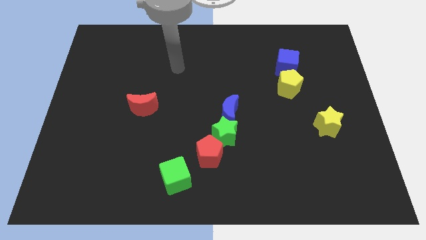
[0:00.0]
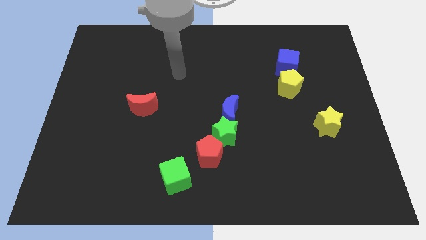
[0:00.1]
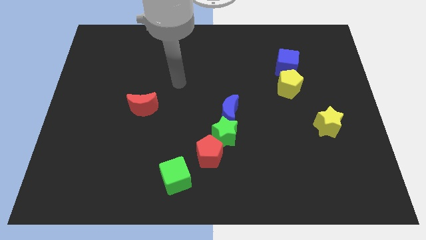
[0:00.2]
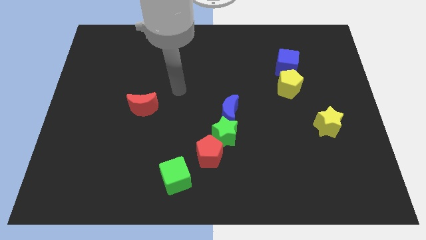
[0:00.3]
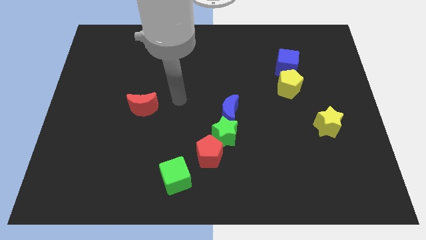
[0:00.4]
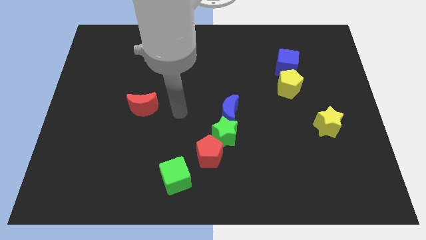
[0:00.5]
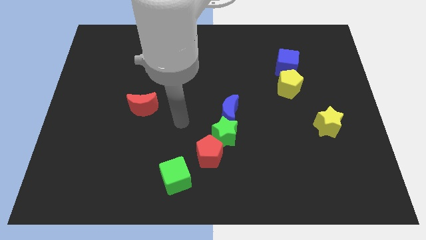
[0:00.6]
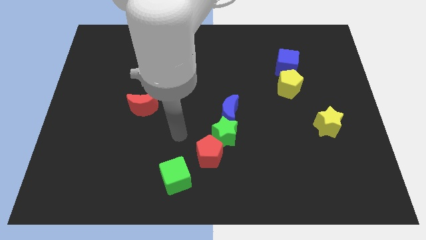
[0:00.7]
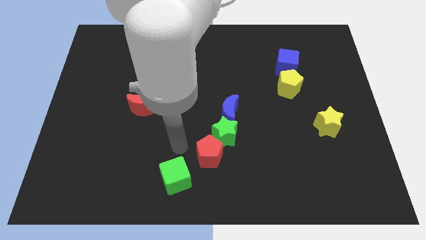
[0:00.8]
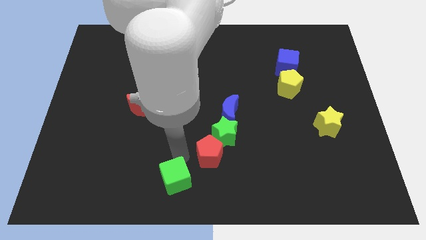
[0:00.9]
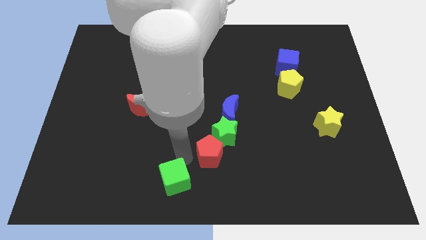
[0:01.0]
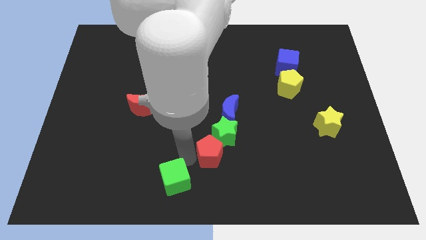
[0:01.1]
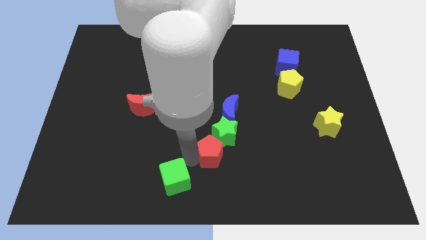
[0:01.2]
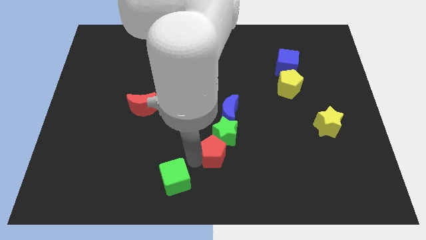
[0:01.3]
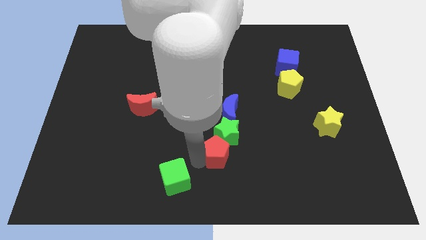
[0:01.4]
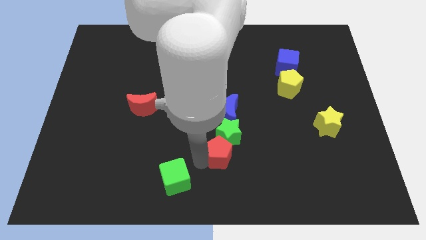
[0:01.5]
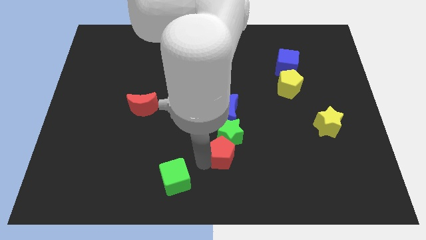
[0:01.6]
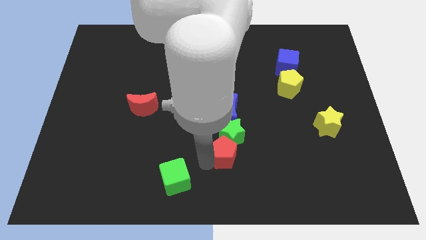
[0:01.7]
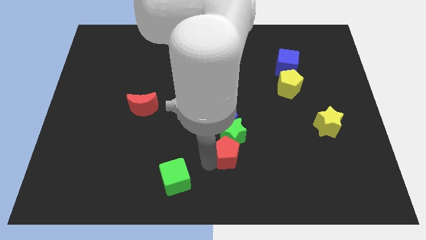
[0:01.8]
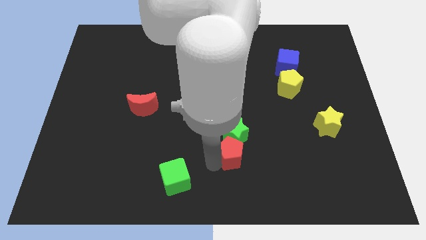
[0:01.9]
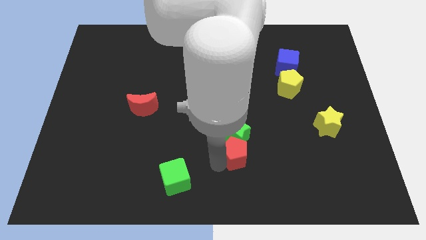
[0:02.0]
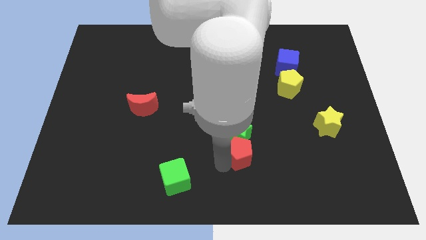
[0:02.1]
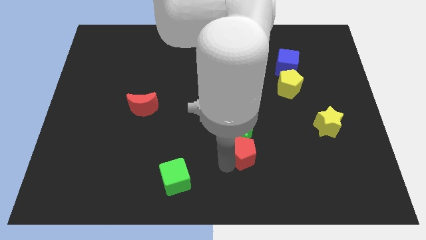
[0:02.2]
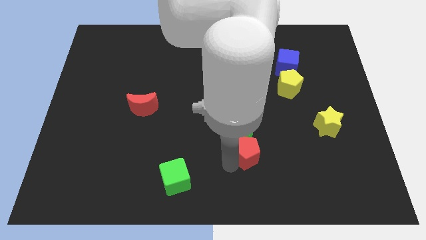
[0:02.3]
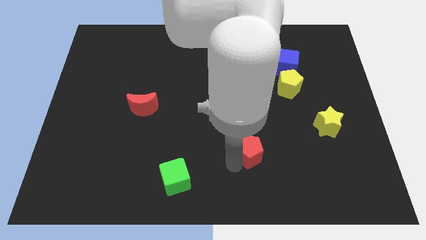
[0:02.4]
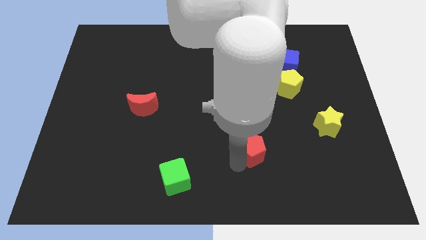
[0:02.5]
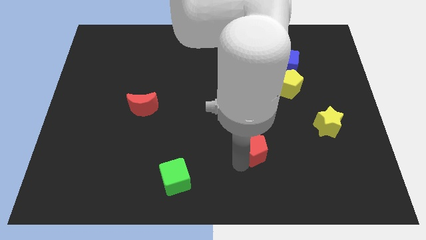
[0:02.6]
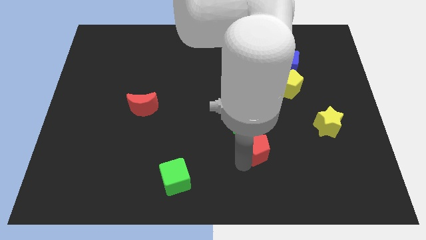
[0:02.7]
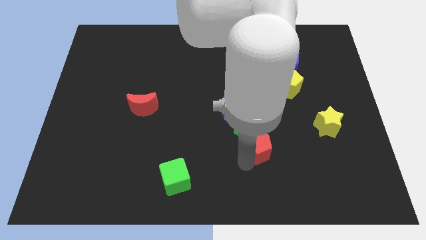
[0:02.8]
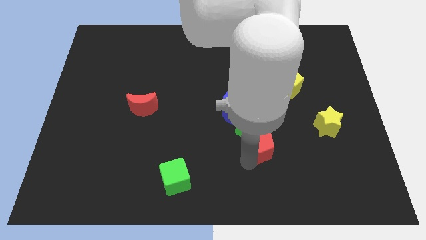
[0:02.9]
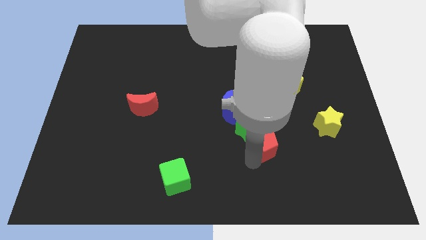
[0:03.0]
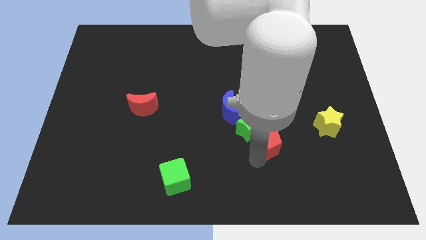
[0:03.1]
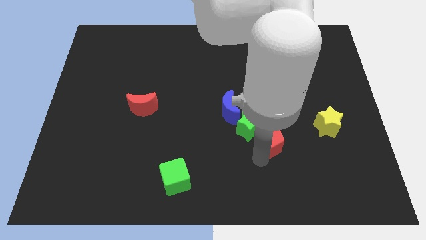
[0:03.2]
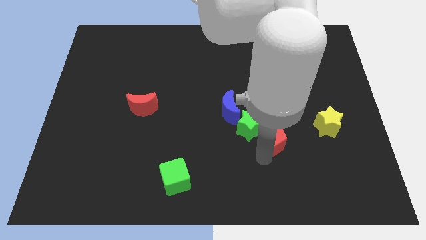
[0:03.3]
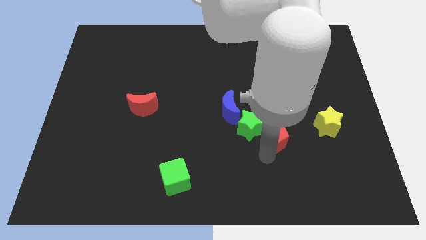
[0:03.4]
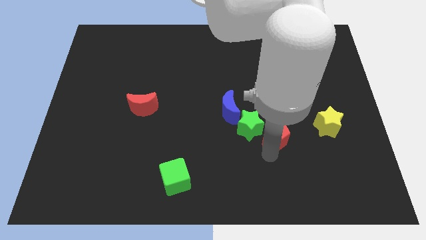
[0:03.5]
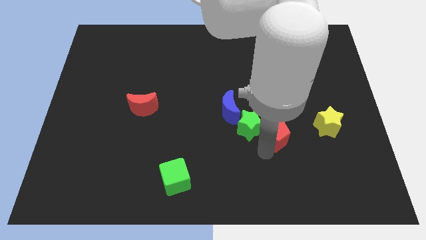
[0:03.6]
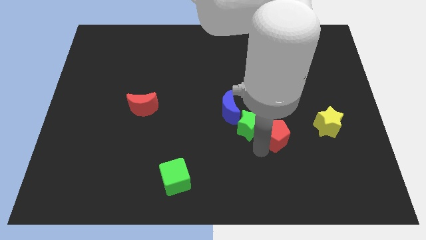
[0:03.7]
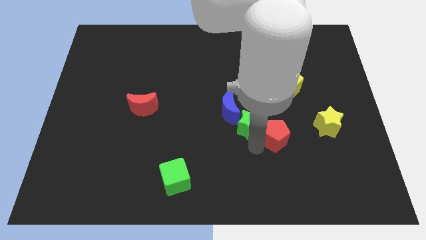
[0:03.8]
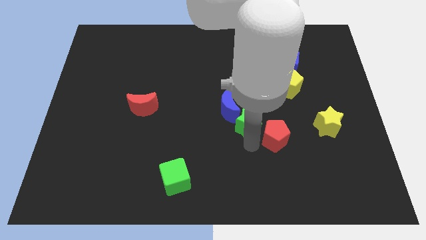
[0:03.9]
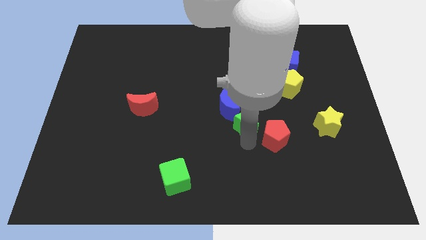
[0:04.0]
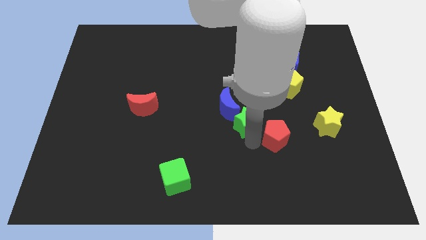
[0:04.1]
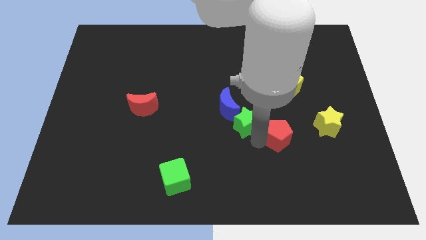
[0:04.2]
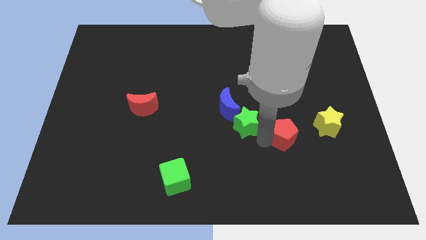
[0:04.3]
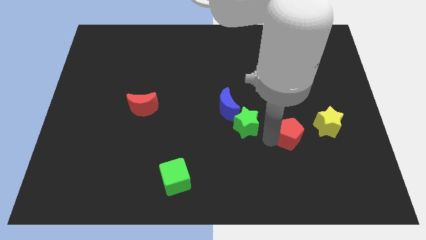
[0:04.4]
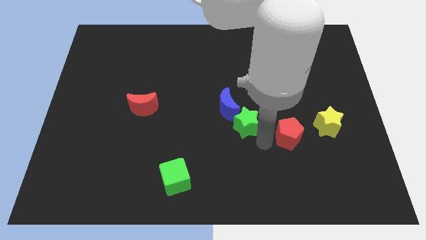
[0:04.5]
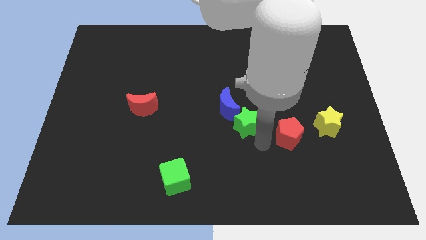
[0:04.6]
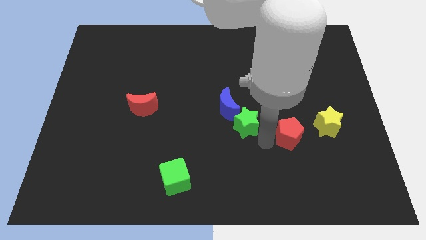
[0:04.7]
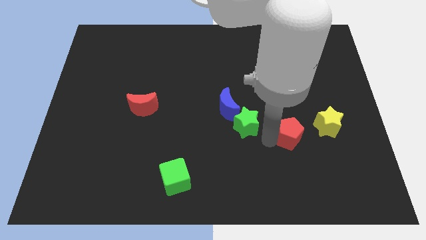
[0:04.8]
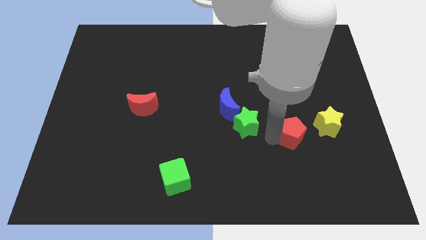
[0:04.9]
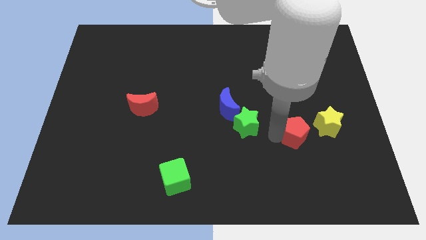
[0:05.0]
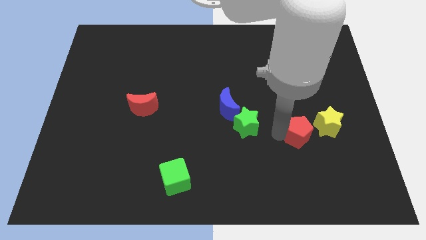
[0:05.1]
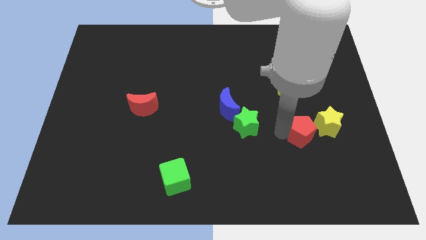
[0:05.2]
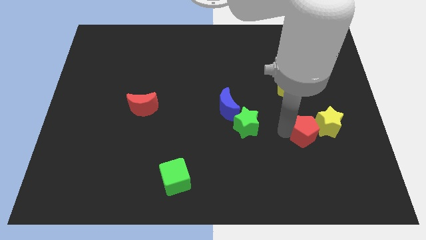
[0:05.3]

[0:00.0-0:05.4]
push the red pentagon next to the yellow star

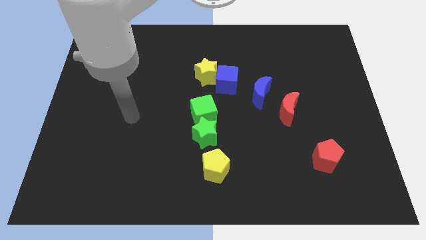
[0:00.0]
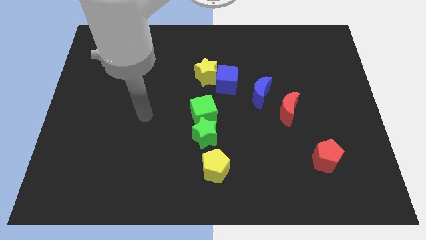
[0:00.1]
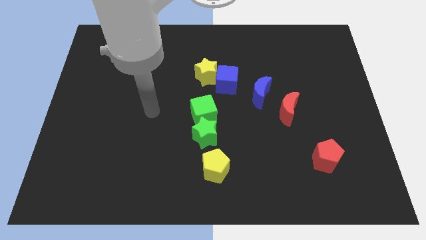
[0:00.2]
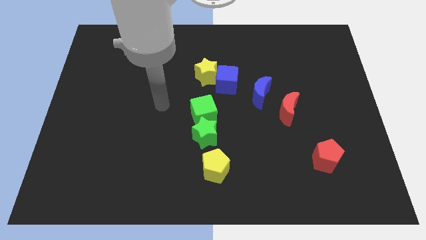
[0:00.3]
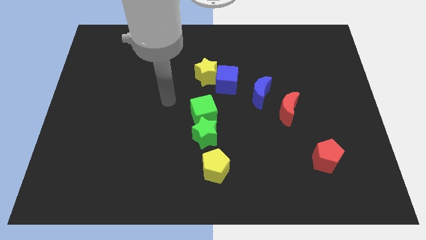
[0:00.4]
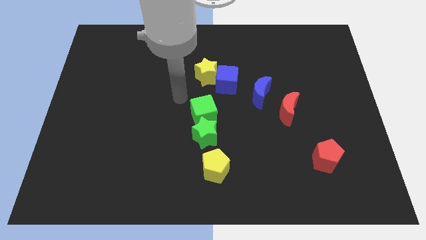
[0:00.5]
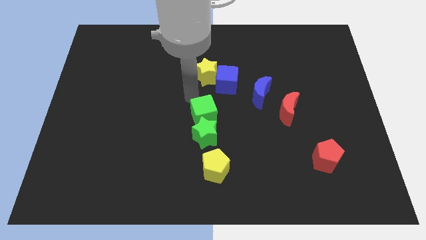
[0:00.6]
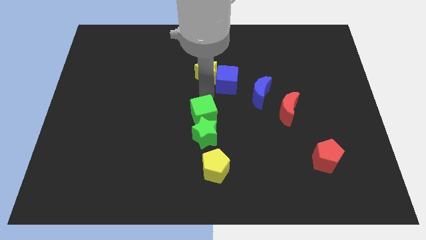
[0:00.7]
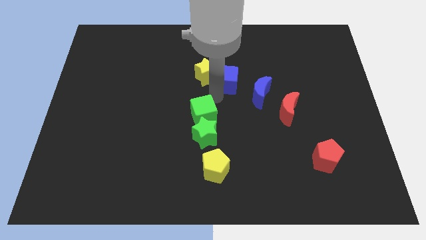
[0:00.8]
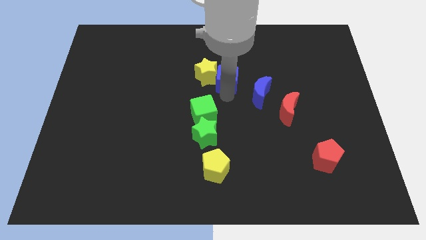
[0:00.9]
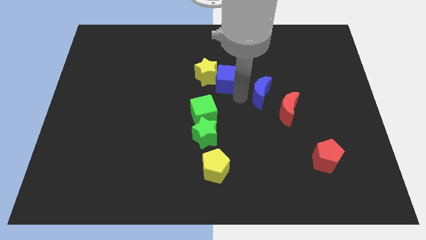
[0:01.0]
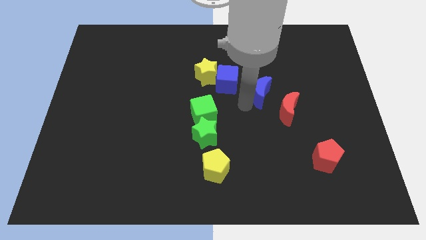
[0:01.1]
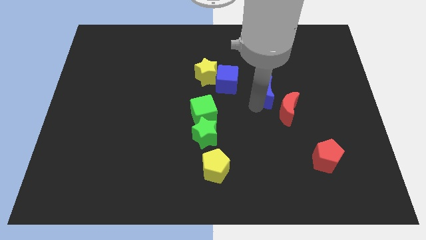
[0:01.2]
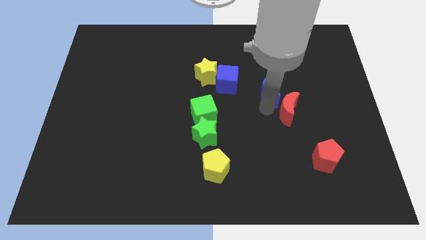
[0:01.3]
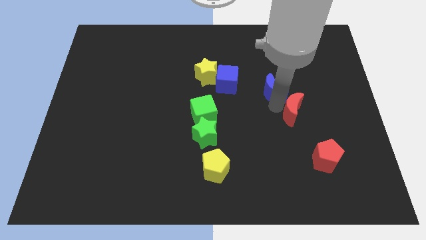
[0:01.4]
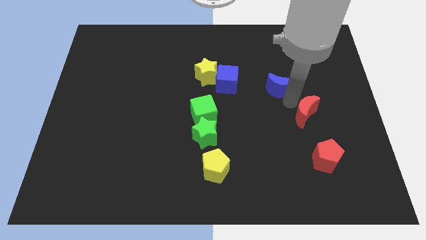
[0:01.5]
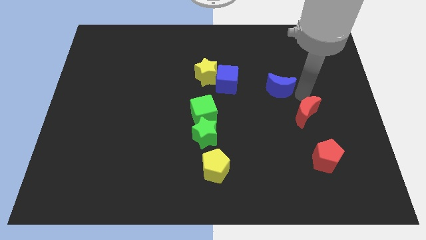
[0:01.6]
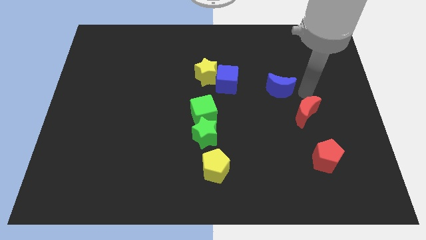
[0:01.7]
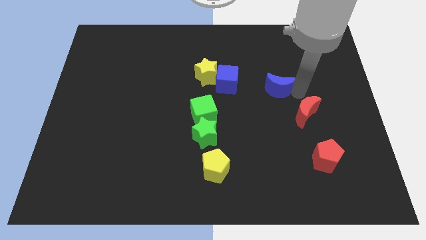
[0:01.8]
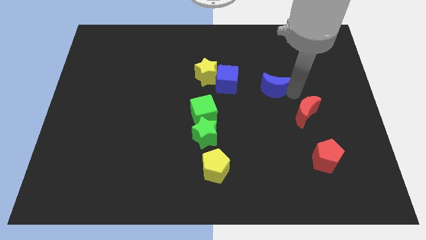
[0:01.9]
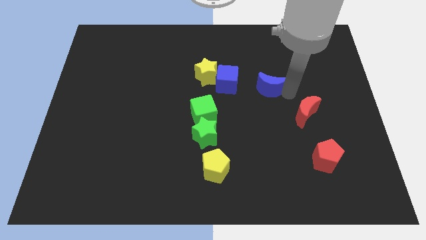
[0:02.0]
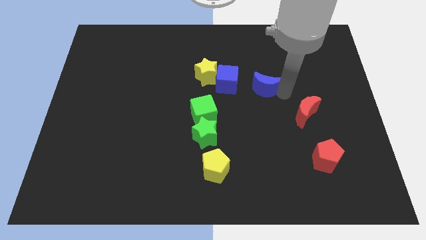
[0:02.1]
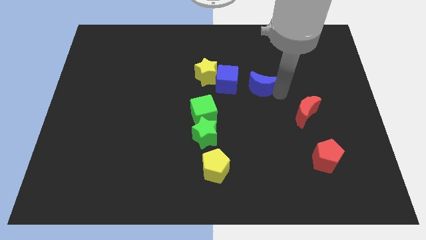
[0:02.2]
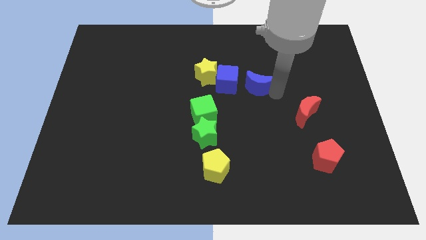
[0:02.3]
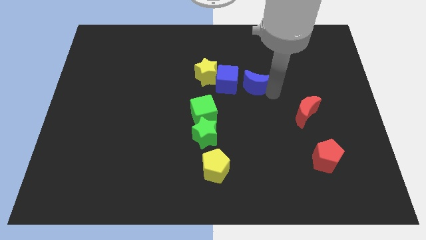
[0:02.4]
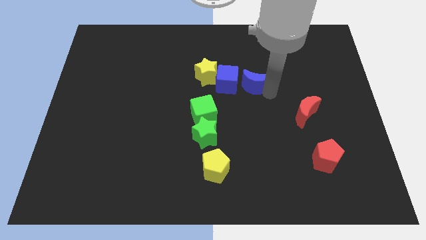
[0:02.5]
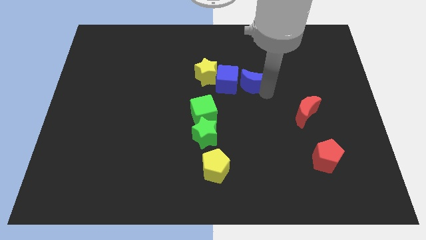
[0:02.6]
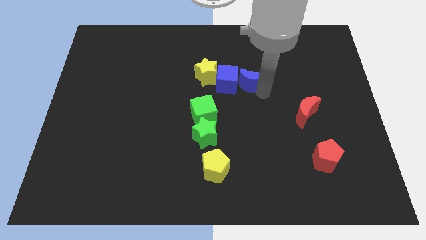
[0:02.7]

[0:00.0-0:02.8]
slide the blue moon towards the blue cube
